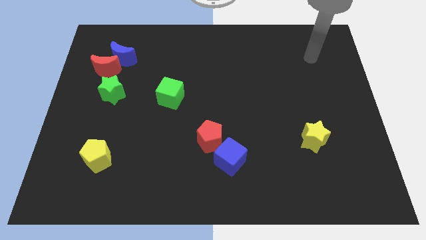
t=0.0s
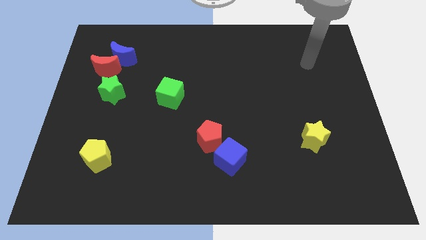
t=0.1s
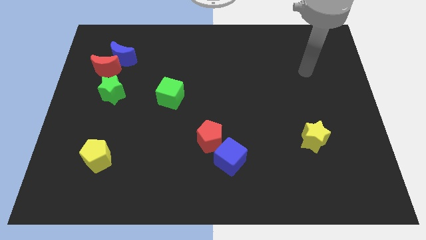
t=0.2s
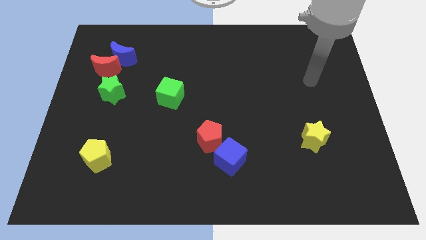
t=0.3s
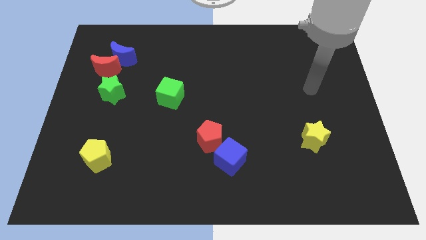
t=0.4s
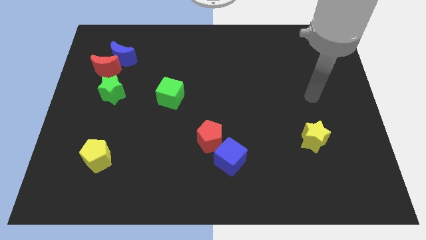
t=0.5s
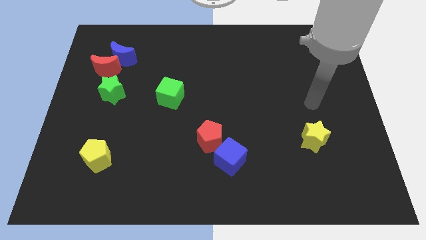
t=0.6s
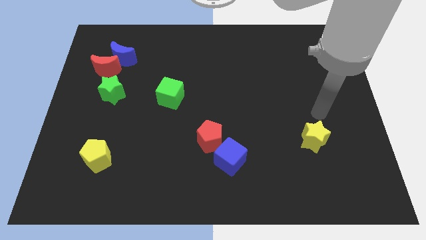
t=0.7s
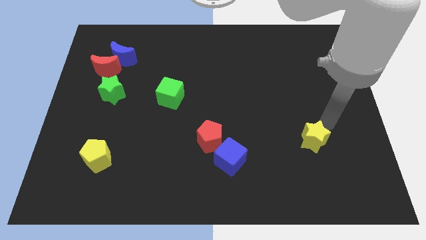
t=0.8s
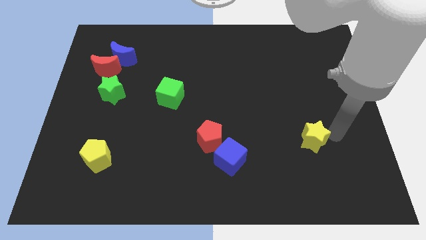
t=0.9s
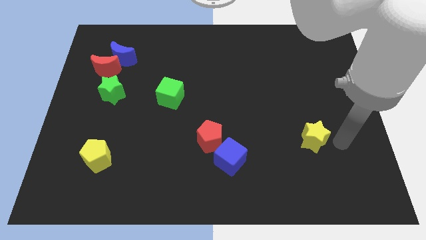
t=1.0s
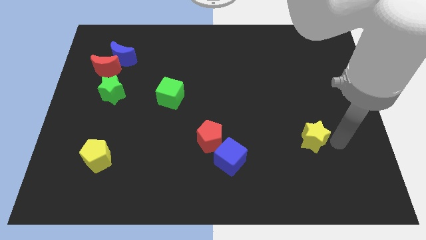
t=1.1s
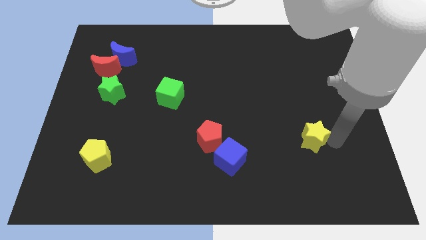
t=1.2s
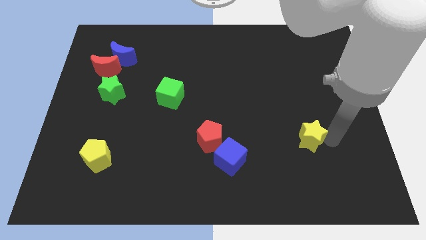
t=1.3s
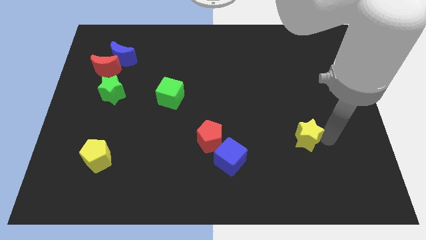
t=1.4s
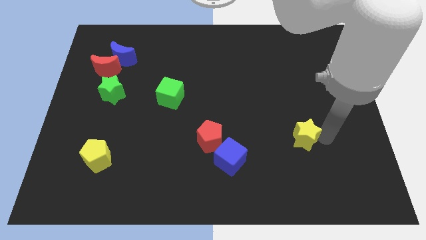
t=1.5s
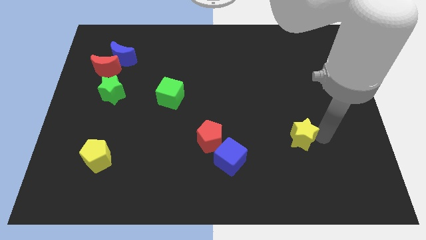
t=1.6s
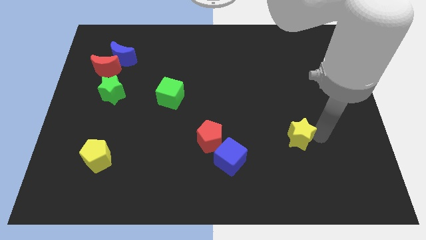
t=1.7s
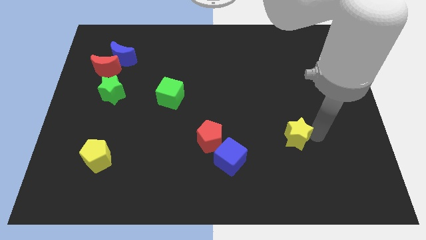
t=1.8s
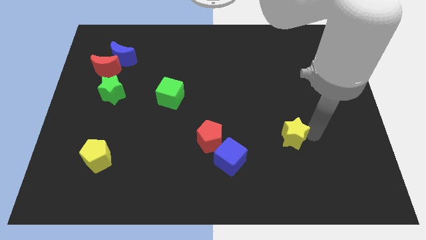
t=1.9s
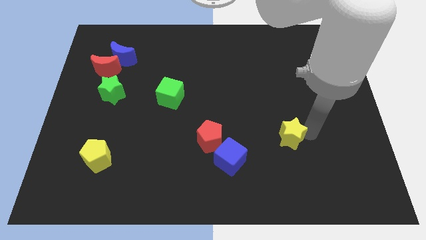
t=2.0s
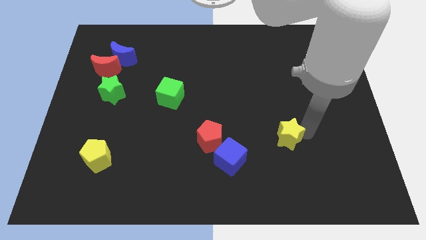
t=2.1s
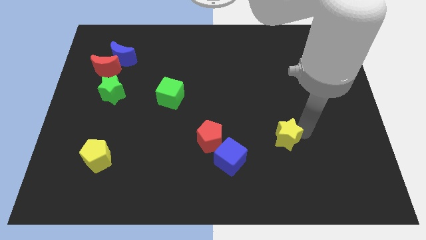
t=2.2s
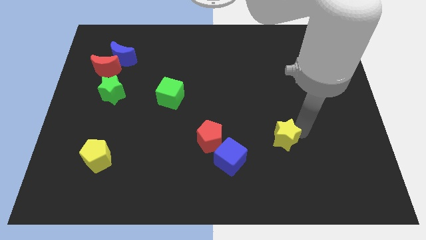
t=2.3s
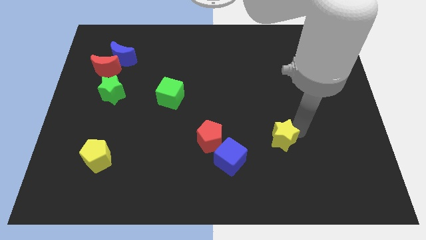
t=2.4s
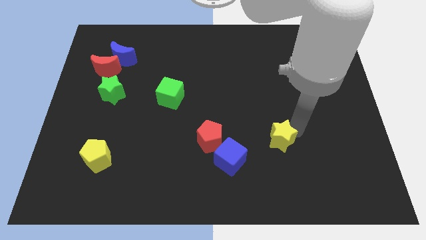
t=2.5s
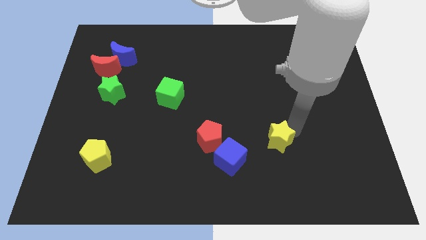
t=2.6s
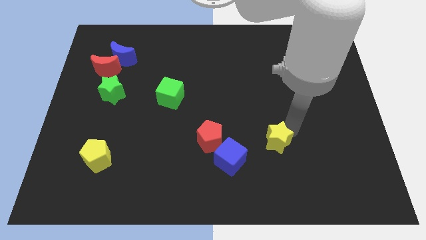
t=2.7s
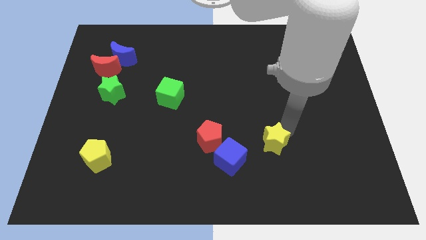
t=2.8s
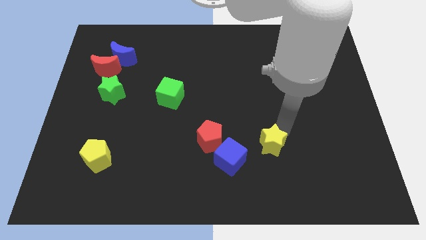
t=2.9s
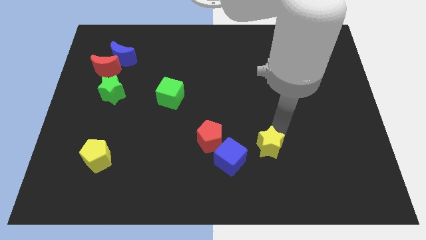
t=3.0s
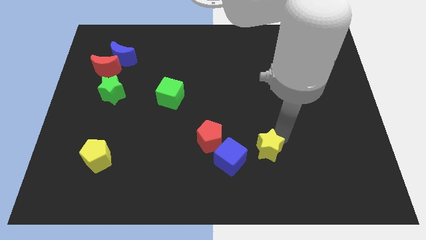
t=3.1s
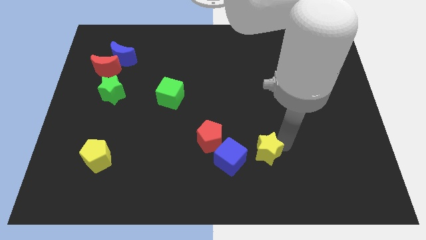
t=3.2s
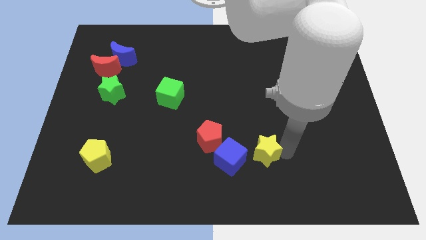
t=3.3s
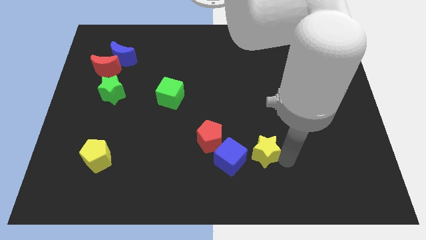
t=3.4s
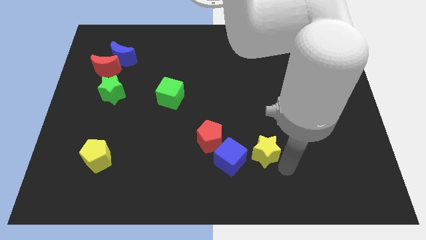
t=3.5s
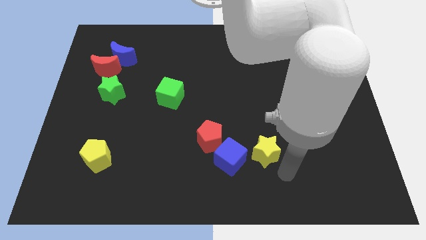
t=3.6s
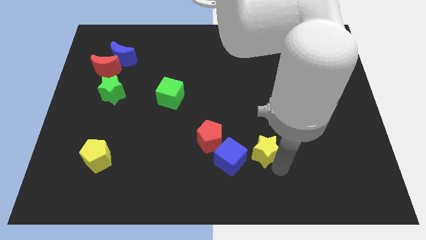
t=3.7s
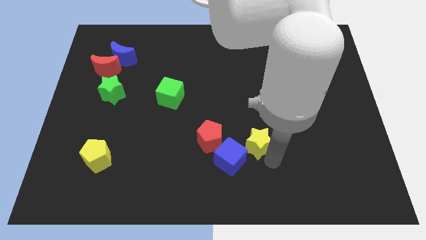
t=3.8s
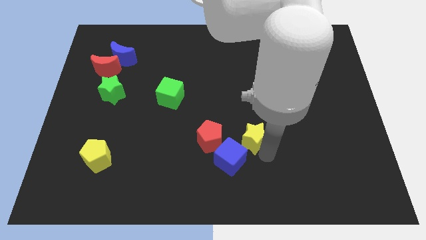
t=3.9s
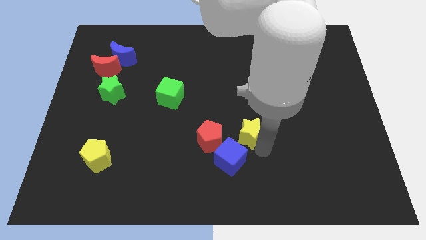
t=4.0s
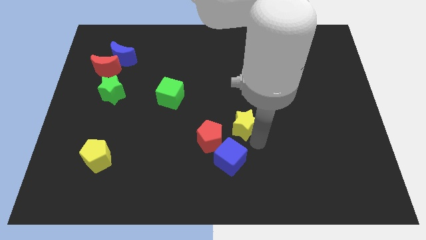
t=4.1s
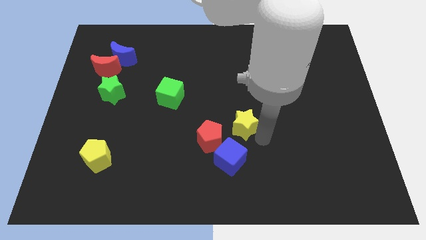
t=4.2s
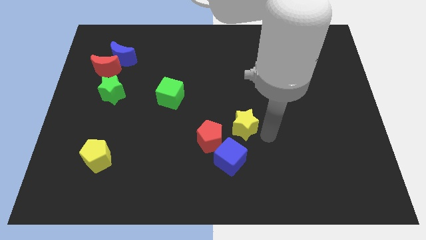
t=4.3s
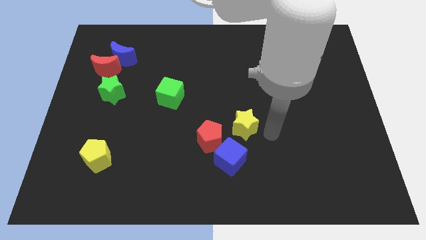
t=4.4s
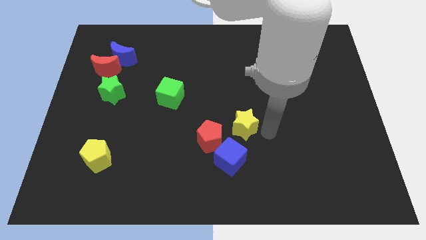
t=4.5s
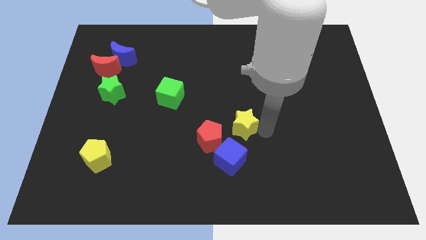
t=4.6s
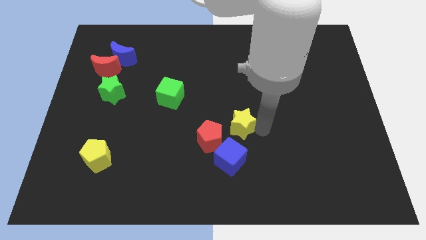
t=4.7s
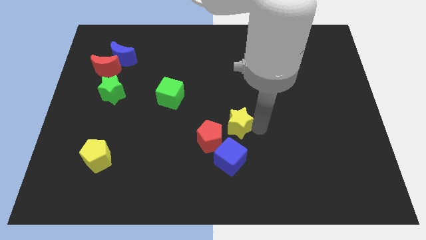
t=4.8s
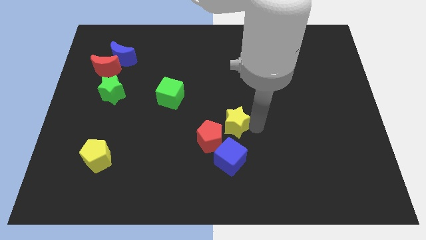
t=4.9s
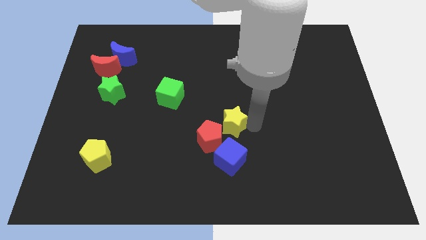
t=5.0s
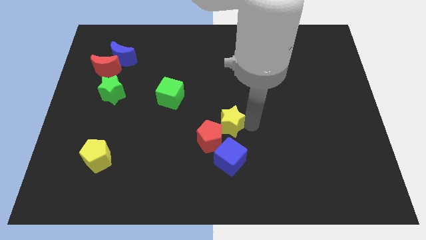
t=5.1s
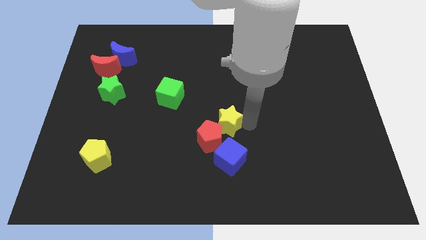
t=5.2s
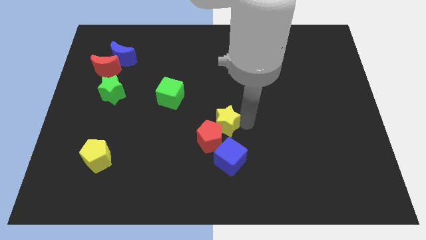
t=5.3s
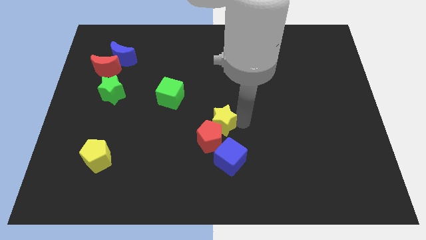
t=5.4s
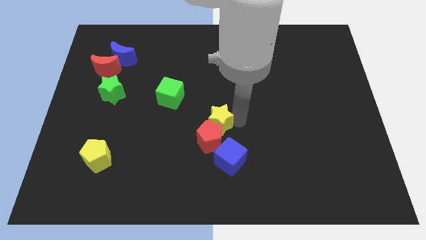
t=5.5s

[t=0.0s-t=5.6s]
put the yellow star to the top left of the red pentagon
